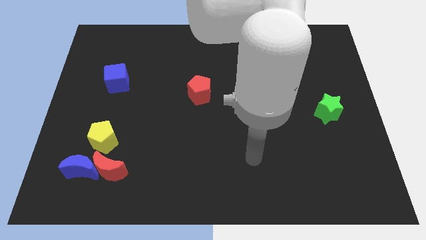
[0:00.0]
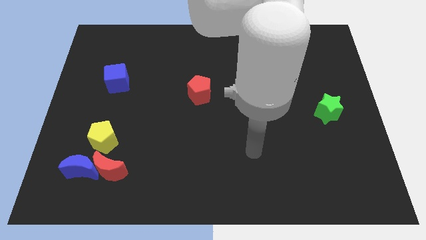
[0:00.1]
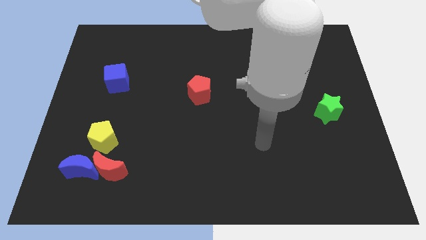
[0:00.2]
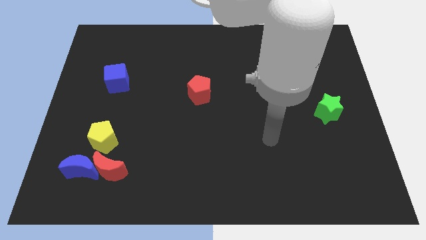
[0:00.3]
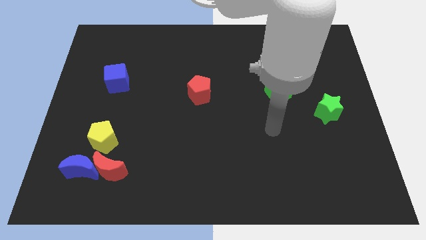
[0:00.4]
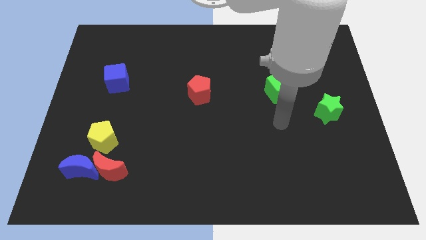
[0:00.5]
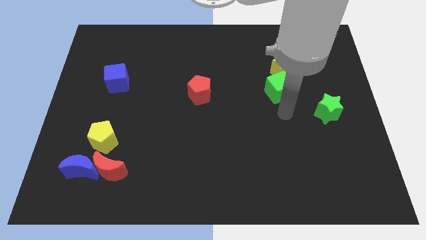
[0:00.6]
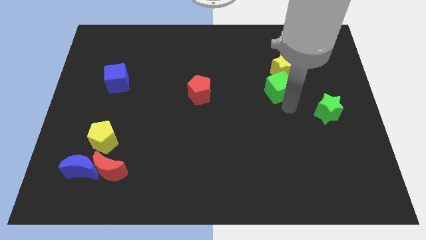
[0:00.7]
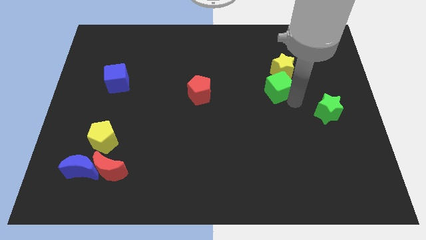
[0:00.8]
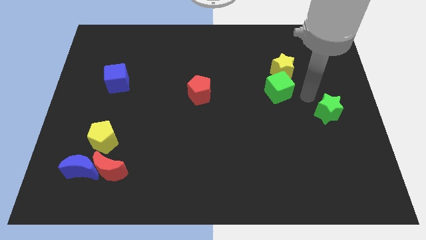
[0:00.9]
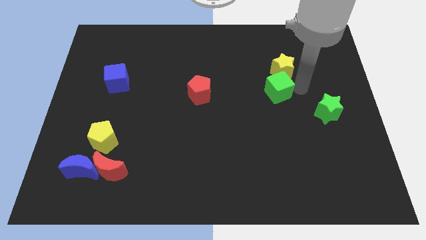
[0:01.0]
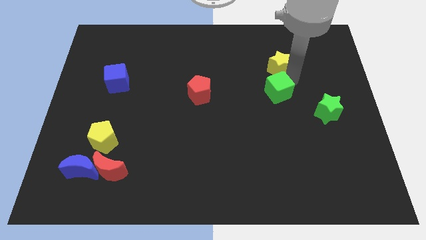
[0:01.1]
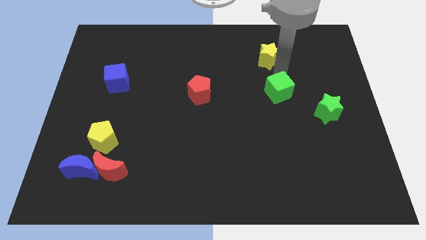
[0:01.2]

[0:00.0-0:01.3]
move the green cube away from the yellow star

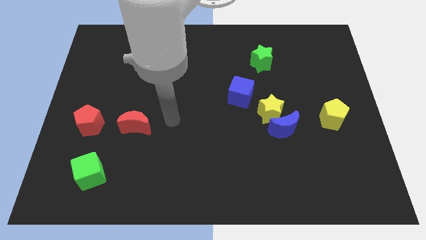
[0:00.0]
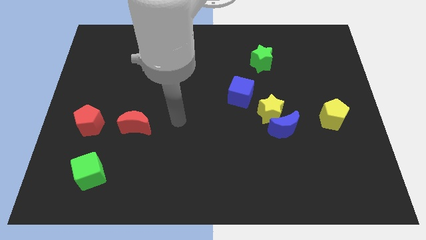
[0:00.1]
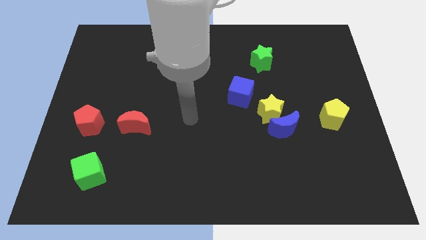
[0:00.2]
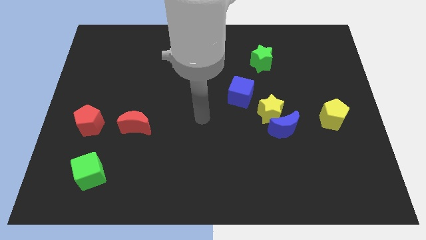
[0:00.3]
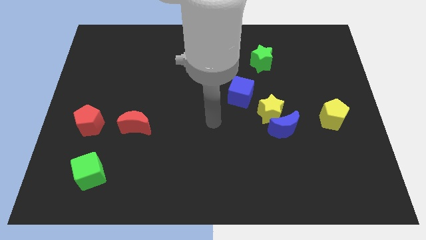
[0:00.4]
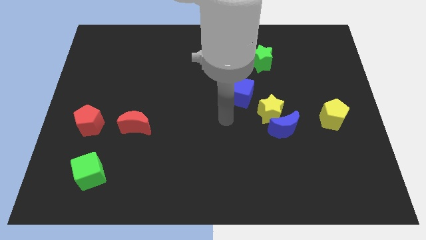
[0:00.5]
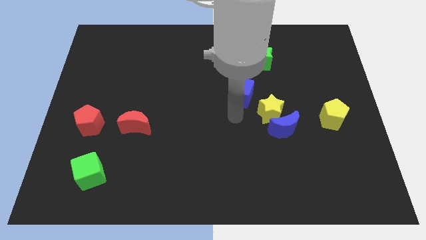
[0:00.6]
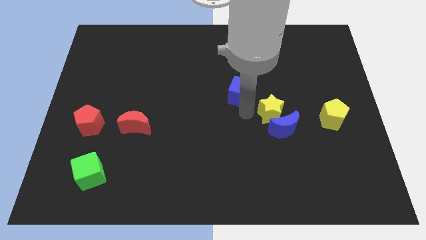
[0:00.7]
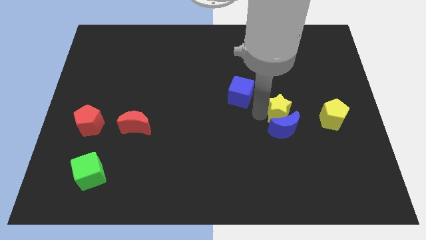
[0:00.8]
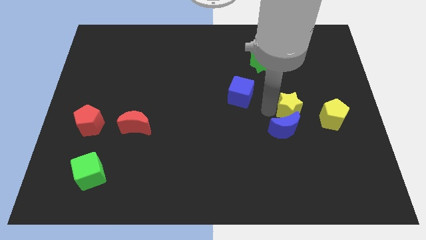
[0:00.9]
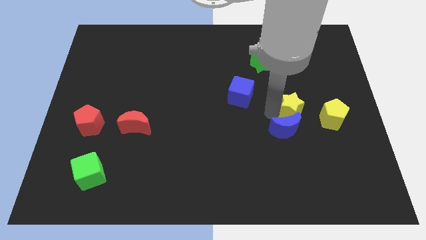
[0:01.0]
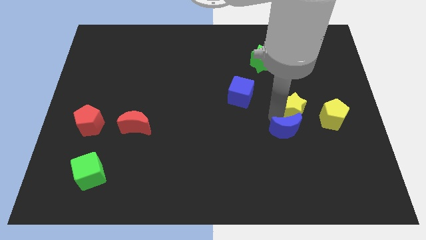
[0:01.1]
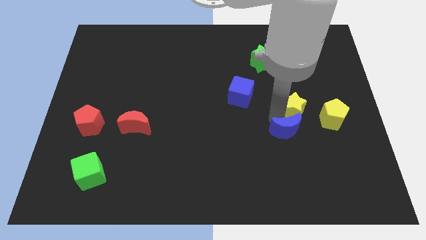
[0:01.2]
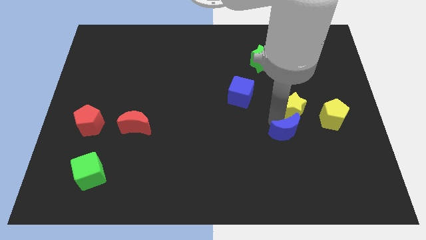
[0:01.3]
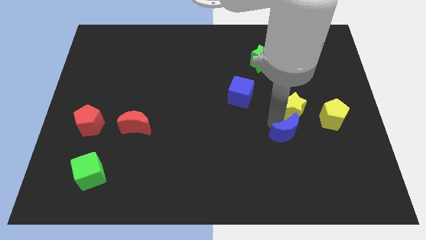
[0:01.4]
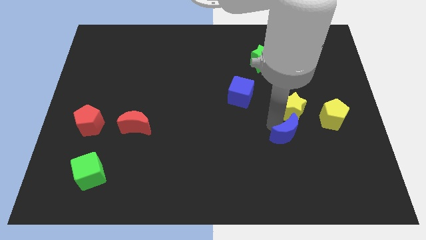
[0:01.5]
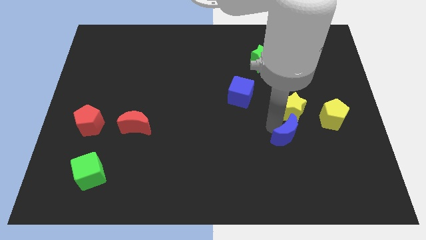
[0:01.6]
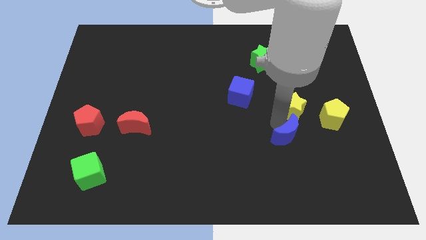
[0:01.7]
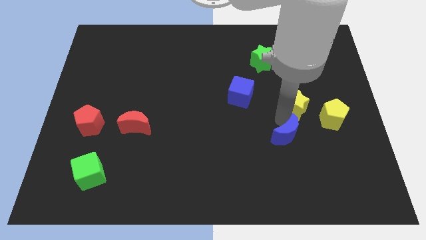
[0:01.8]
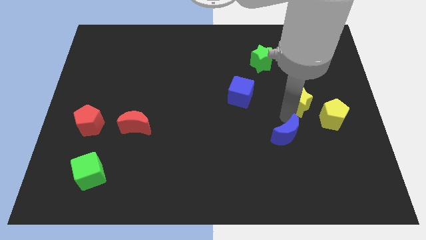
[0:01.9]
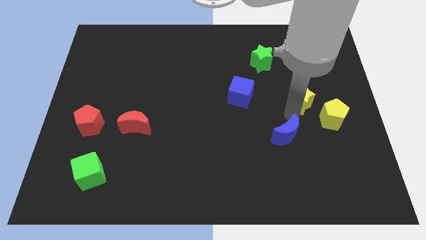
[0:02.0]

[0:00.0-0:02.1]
pull the blue moon apart from the yellow star

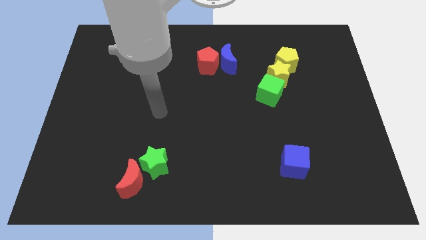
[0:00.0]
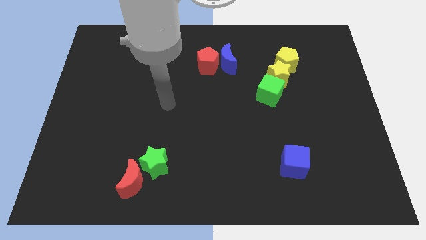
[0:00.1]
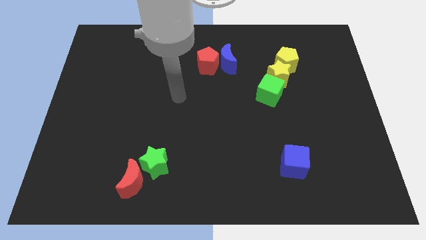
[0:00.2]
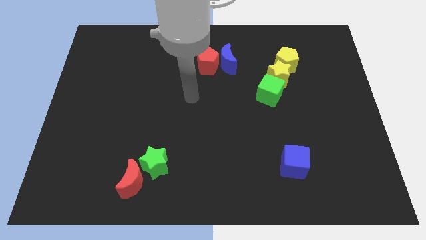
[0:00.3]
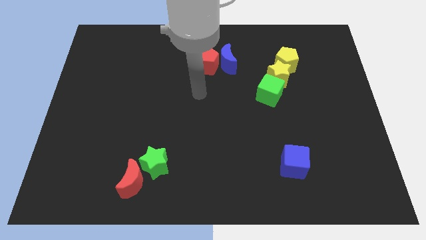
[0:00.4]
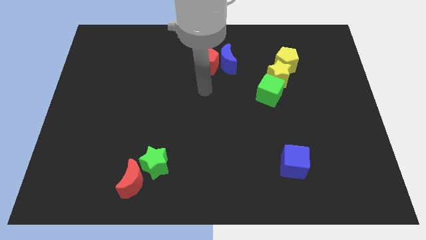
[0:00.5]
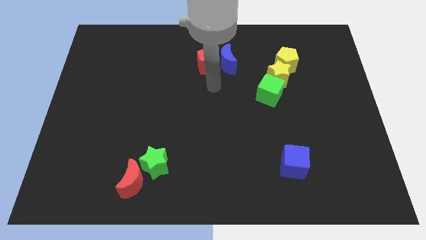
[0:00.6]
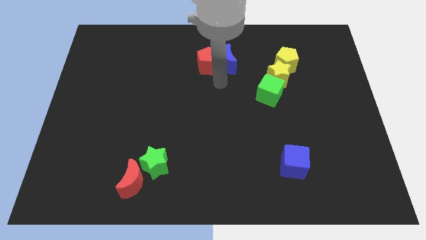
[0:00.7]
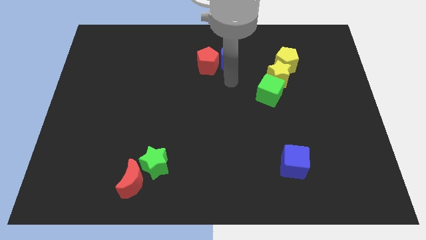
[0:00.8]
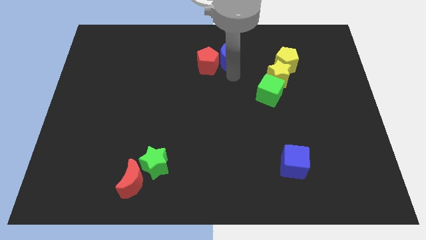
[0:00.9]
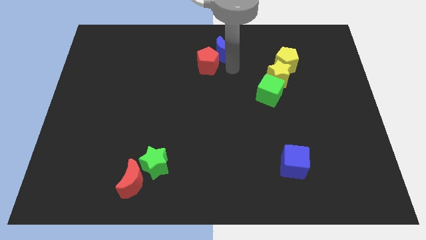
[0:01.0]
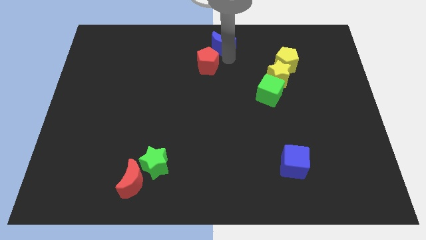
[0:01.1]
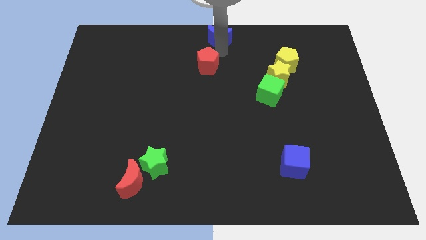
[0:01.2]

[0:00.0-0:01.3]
pull the red pentagon apart from the blue moon

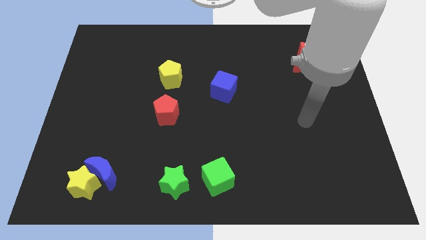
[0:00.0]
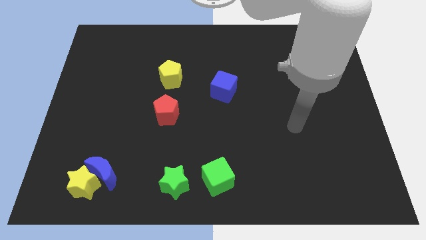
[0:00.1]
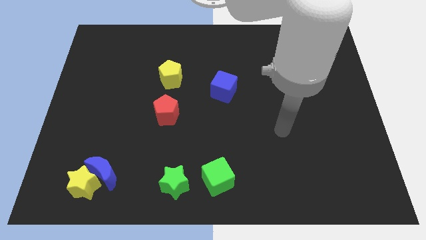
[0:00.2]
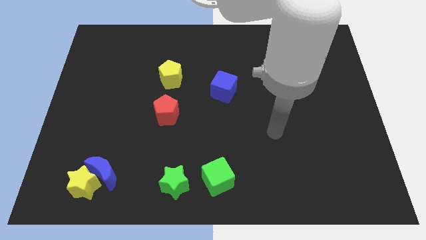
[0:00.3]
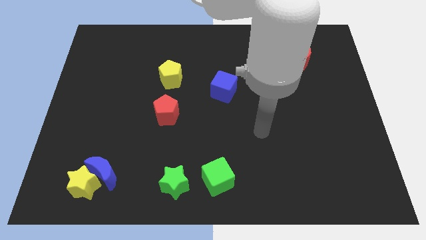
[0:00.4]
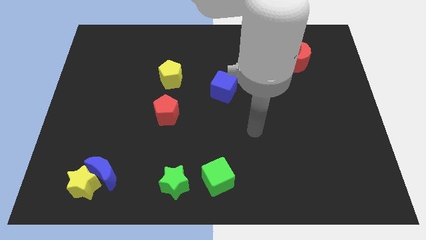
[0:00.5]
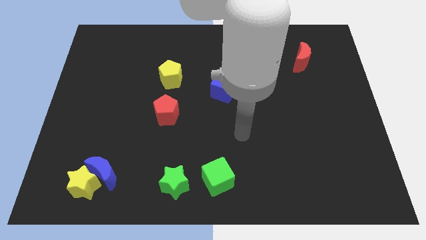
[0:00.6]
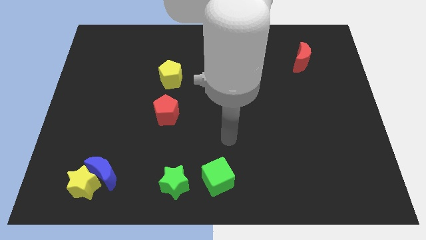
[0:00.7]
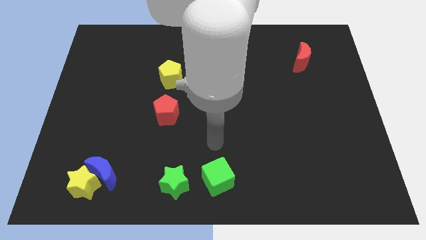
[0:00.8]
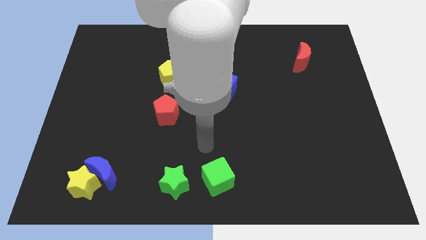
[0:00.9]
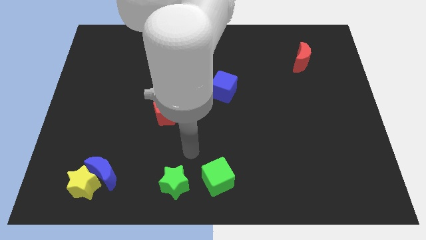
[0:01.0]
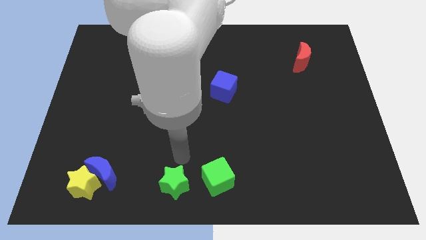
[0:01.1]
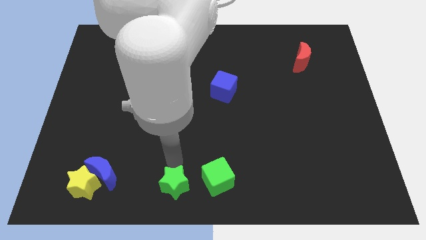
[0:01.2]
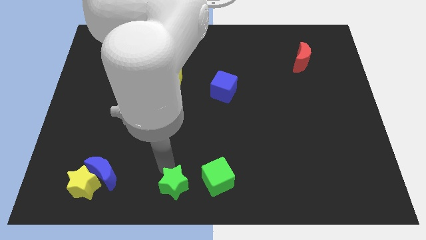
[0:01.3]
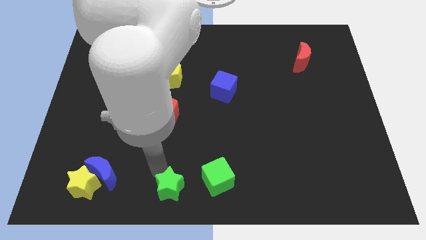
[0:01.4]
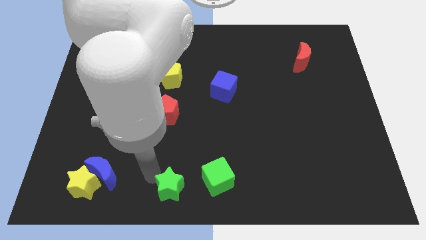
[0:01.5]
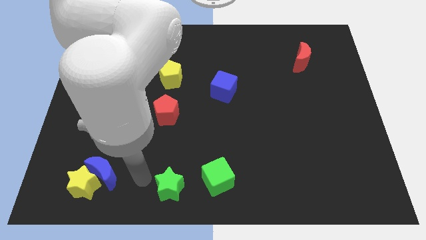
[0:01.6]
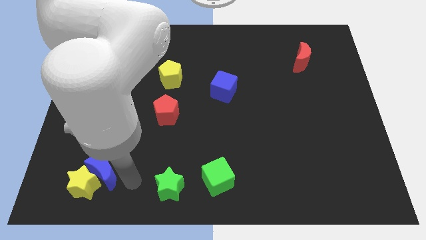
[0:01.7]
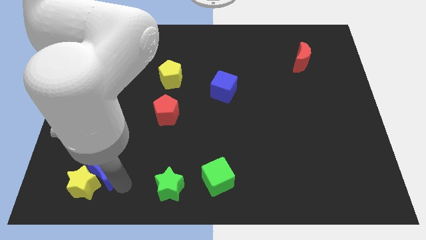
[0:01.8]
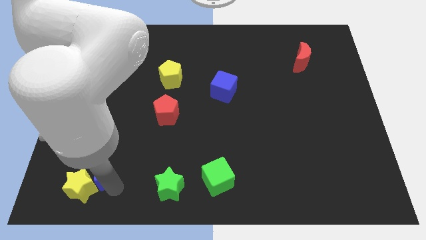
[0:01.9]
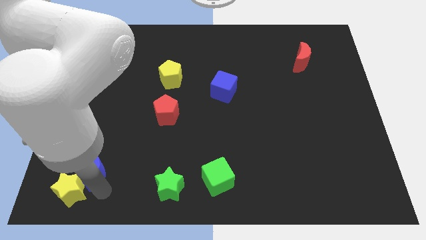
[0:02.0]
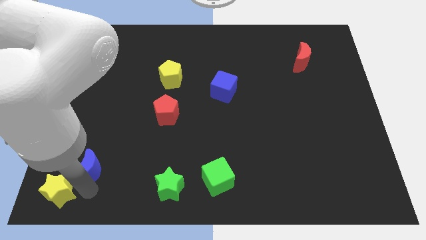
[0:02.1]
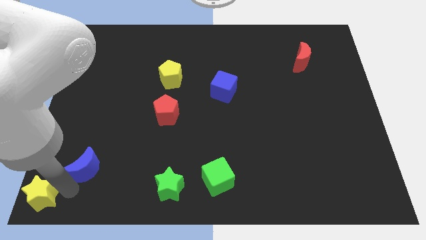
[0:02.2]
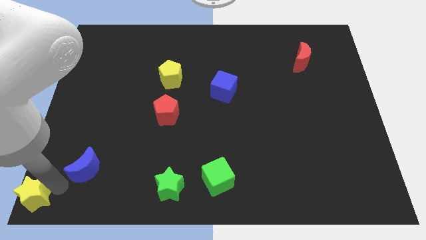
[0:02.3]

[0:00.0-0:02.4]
separate the blue moon from the yellow star

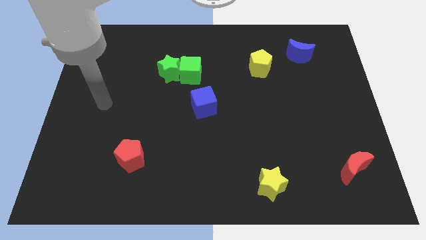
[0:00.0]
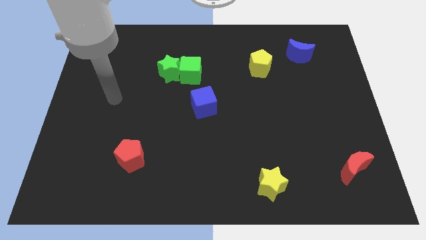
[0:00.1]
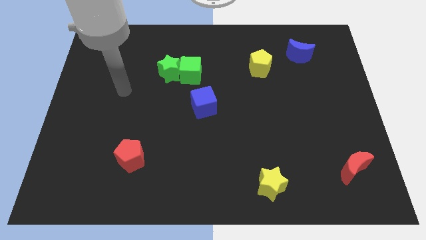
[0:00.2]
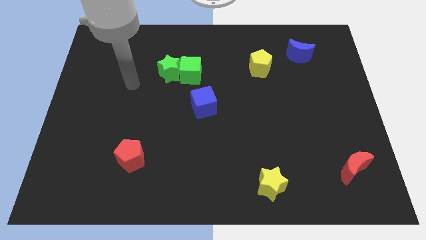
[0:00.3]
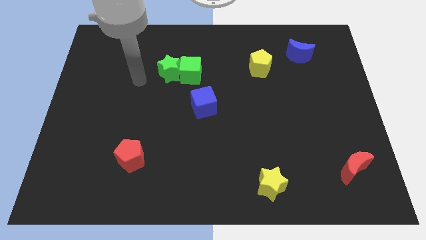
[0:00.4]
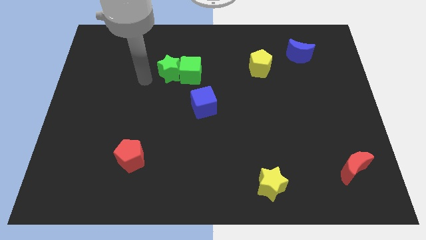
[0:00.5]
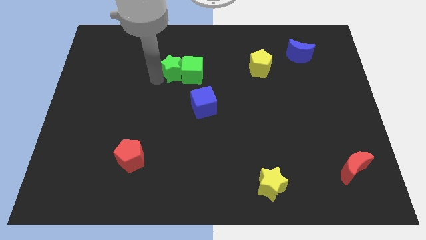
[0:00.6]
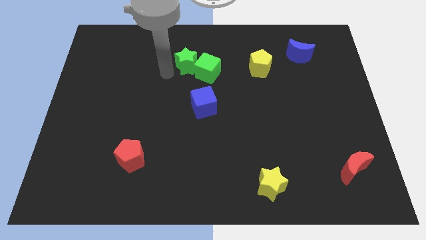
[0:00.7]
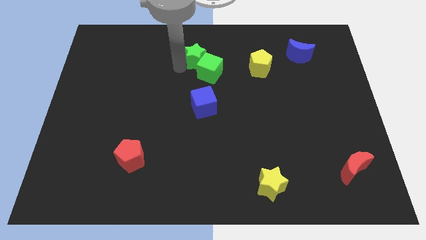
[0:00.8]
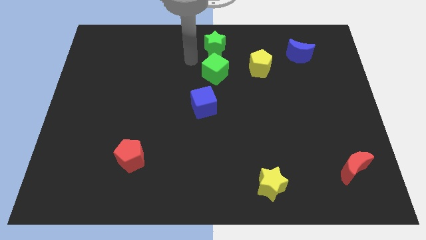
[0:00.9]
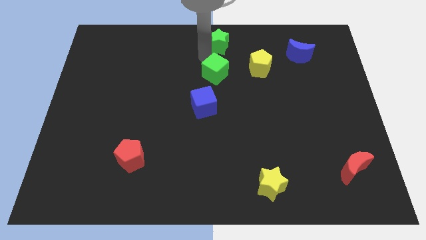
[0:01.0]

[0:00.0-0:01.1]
move the green cube away from the green star

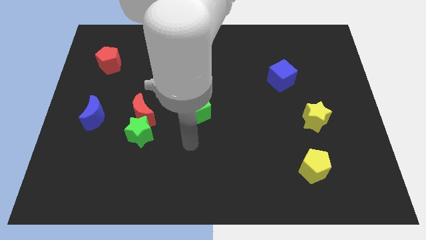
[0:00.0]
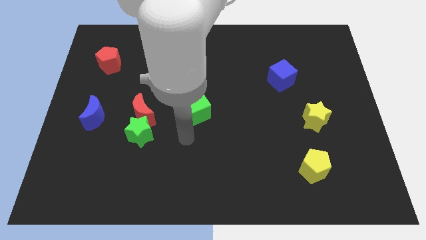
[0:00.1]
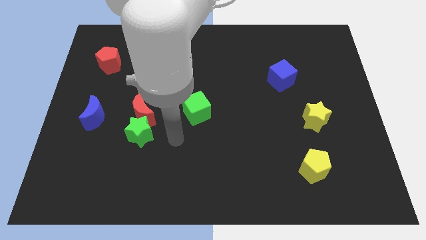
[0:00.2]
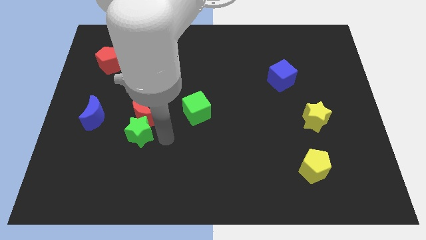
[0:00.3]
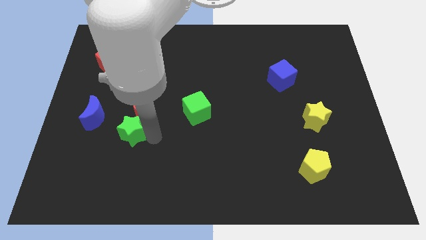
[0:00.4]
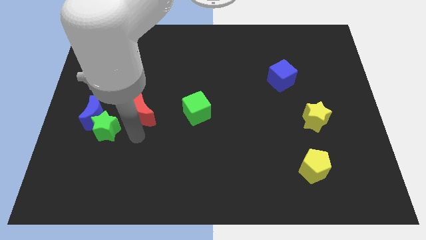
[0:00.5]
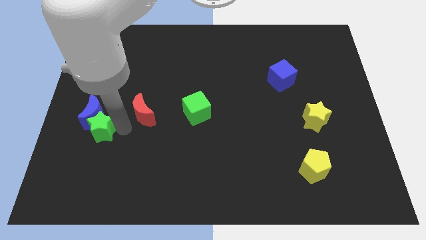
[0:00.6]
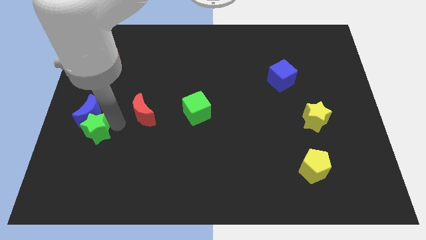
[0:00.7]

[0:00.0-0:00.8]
separate the red moon from the green star
